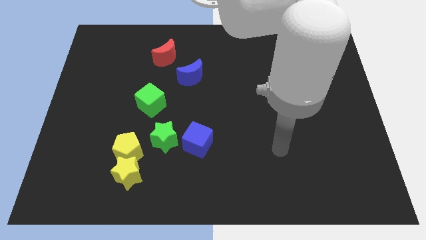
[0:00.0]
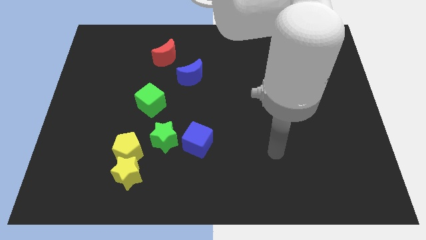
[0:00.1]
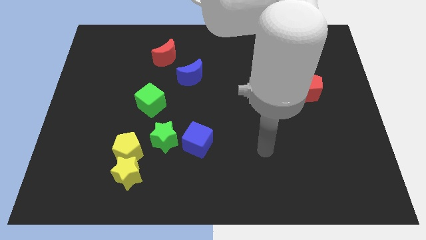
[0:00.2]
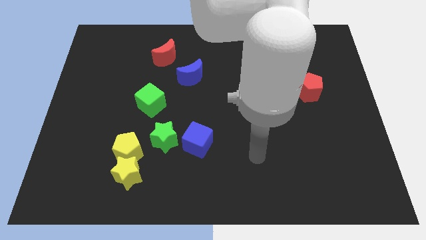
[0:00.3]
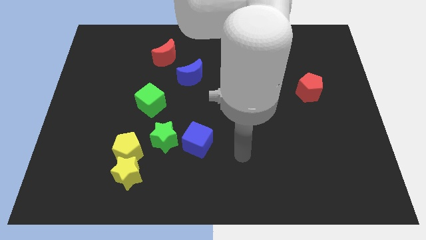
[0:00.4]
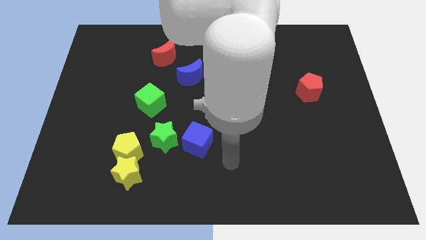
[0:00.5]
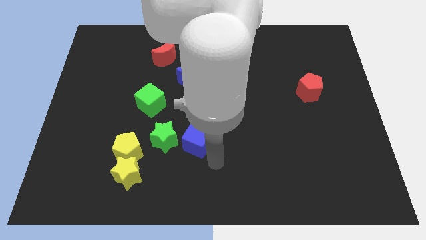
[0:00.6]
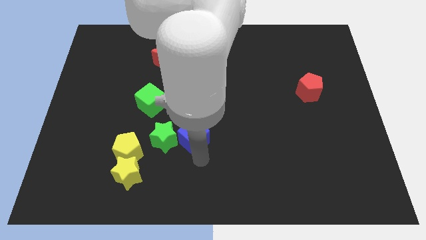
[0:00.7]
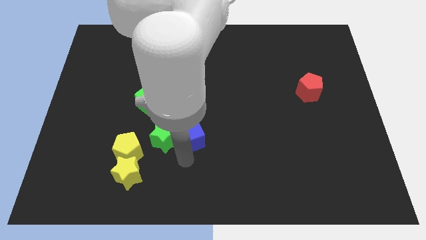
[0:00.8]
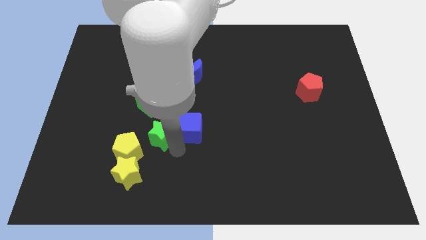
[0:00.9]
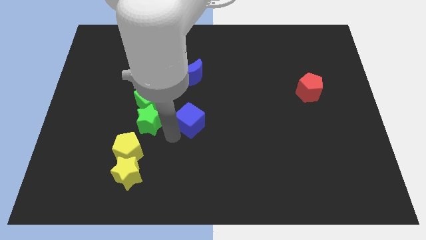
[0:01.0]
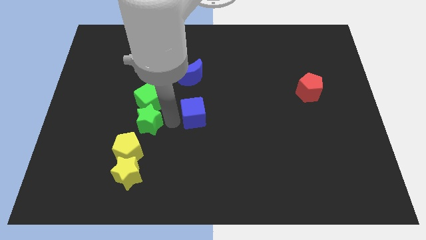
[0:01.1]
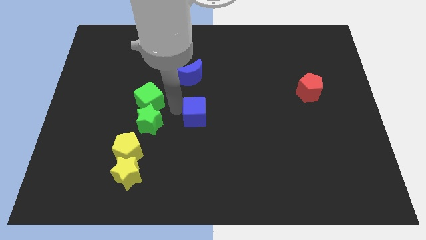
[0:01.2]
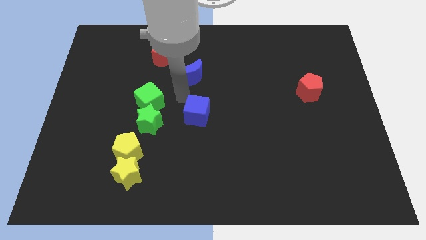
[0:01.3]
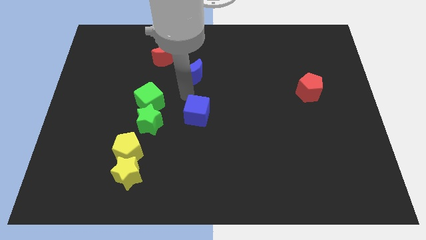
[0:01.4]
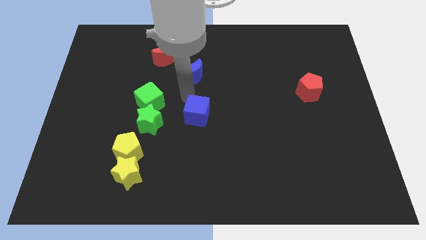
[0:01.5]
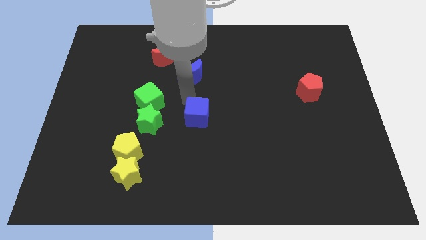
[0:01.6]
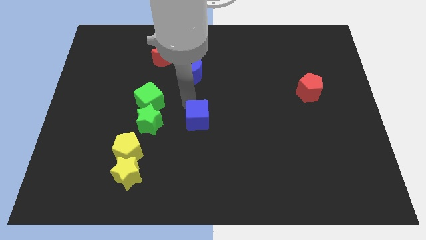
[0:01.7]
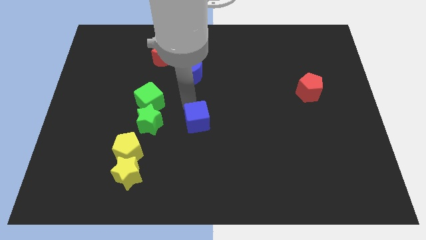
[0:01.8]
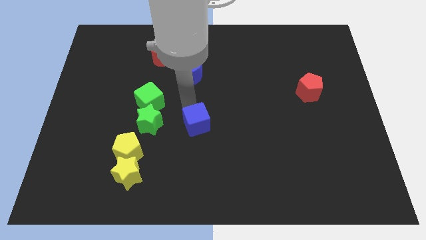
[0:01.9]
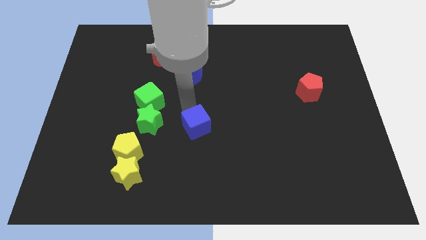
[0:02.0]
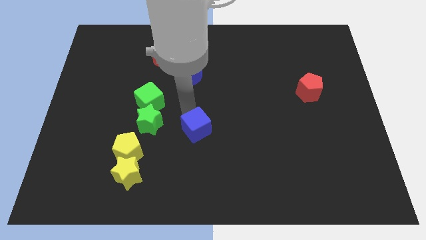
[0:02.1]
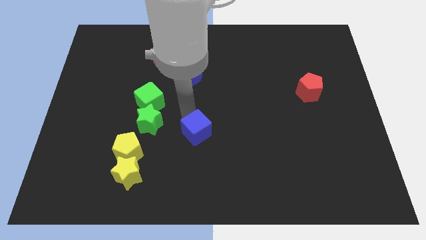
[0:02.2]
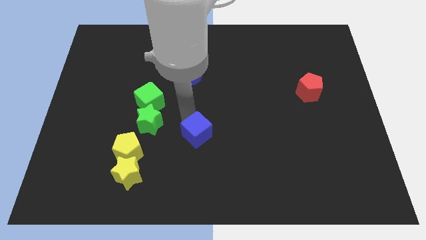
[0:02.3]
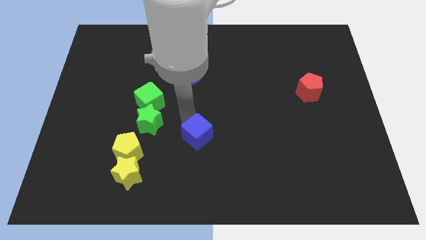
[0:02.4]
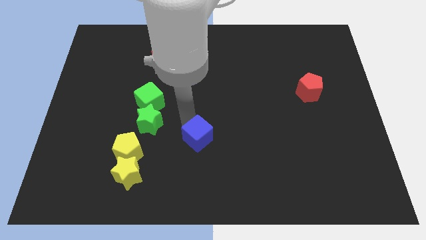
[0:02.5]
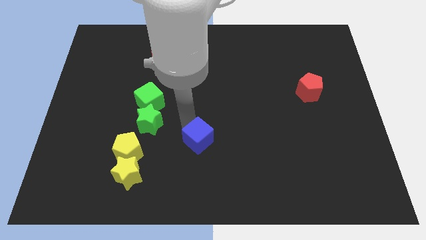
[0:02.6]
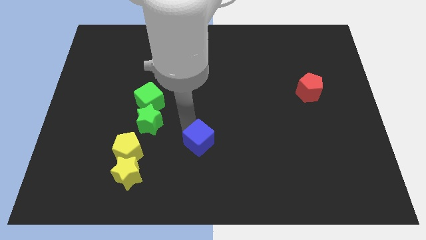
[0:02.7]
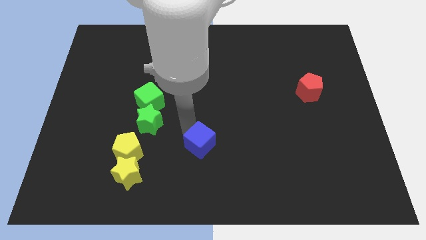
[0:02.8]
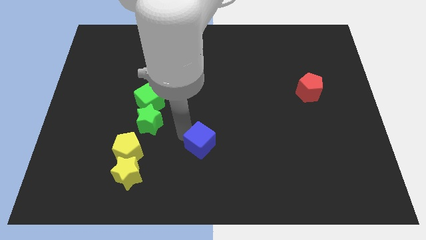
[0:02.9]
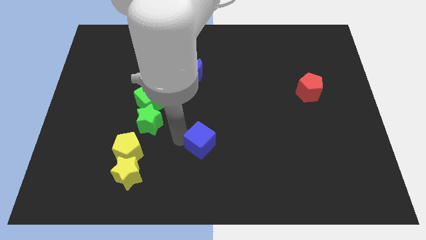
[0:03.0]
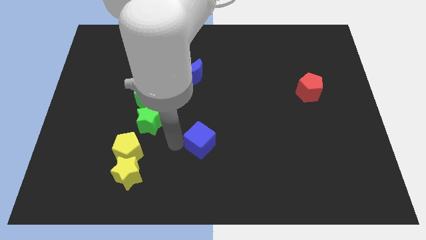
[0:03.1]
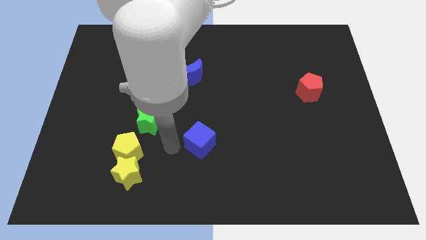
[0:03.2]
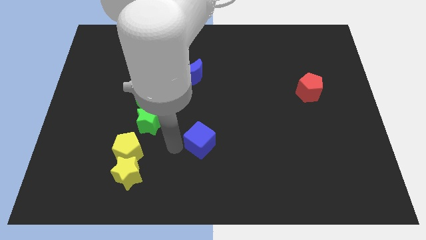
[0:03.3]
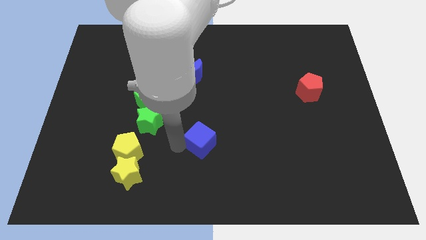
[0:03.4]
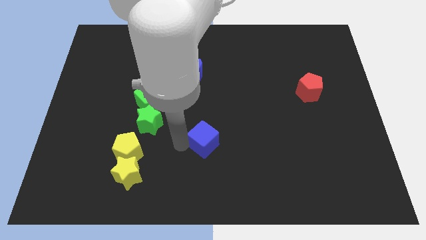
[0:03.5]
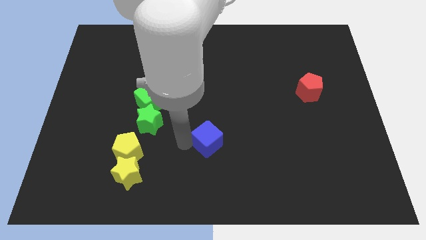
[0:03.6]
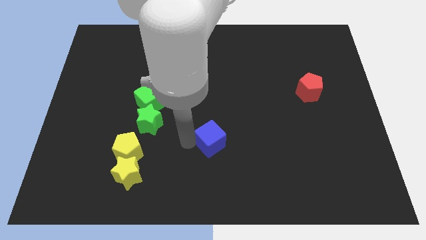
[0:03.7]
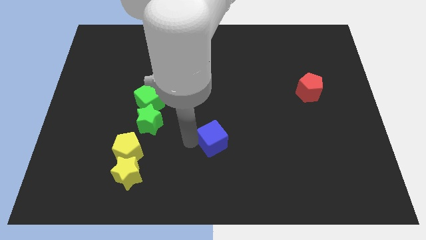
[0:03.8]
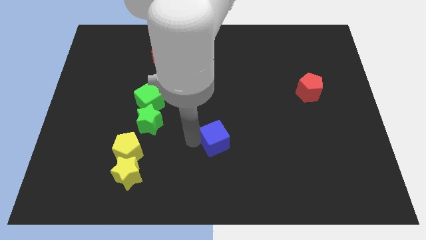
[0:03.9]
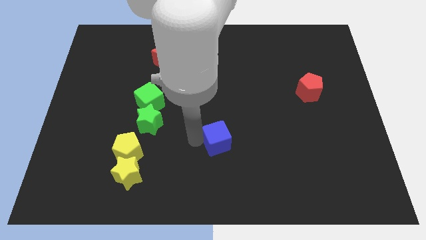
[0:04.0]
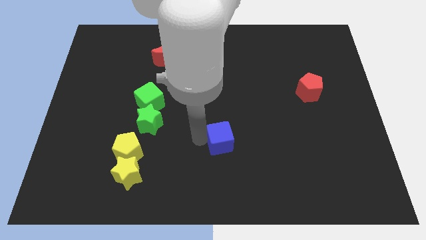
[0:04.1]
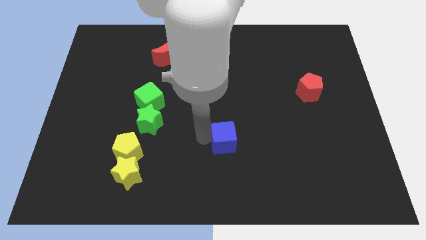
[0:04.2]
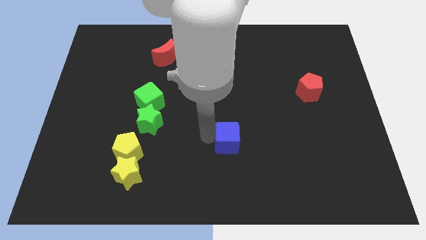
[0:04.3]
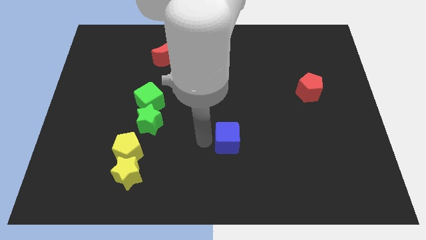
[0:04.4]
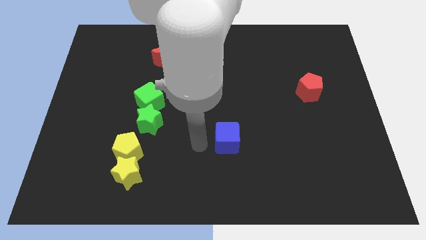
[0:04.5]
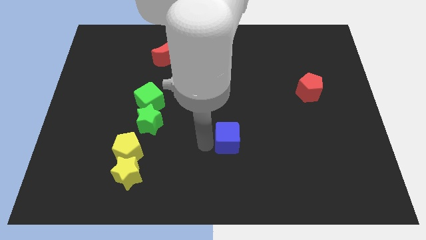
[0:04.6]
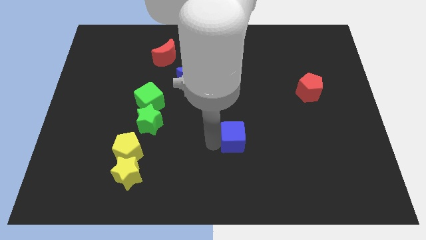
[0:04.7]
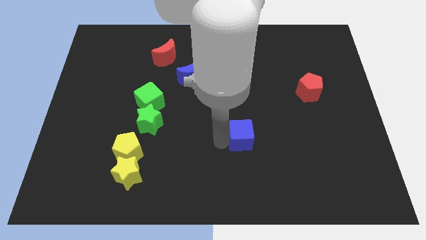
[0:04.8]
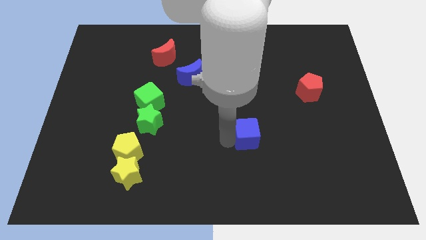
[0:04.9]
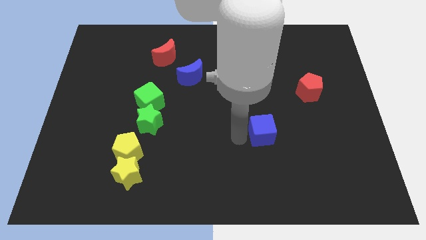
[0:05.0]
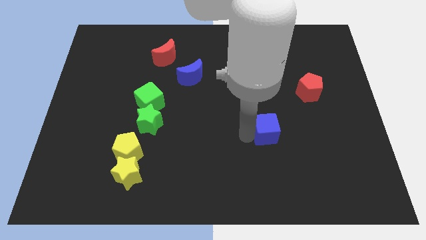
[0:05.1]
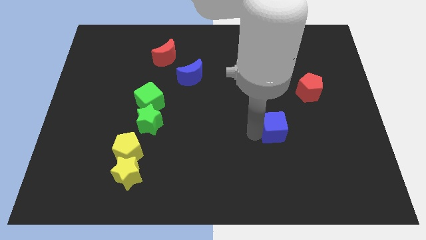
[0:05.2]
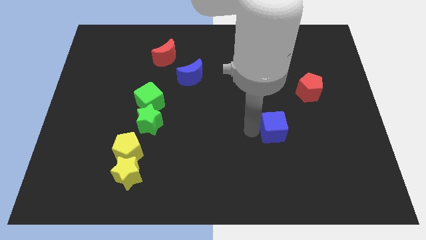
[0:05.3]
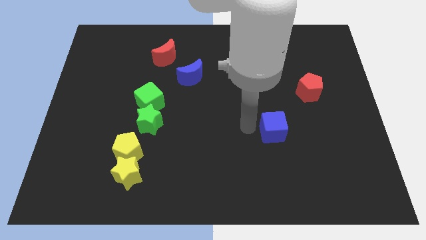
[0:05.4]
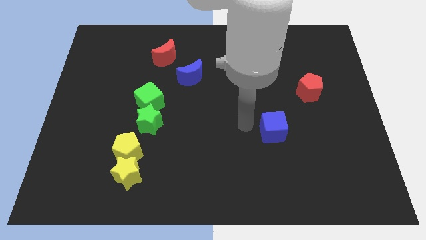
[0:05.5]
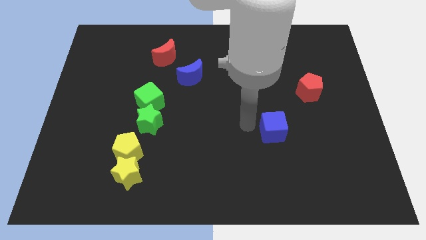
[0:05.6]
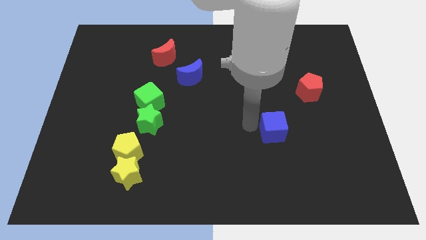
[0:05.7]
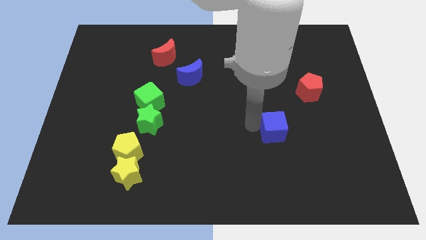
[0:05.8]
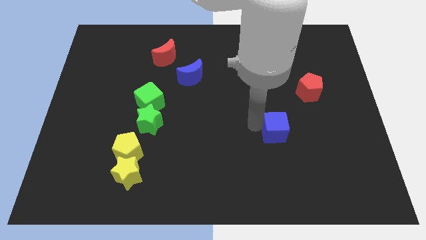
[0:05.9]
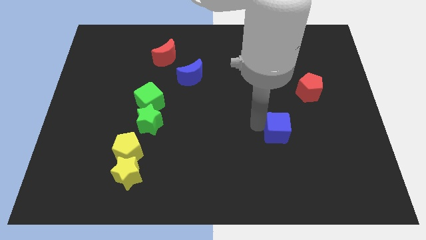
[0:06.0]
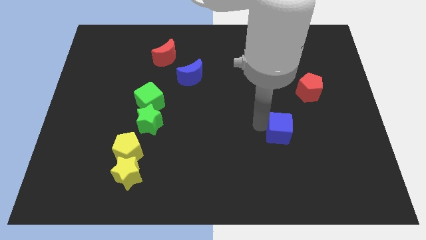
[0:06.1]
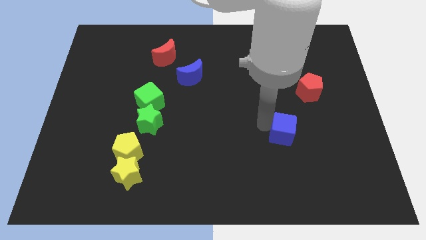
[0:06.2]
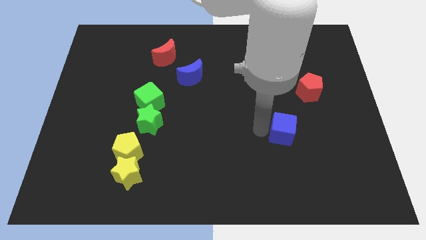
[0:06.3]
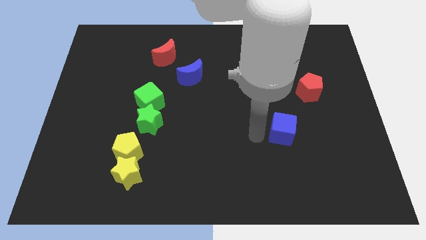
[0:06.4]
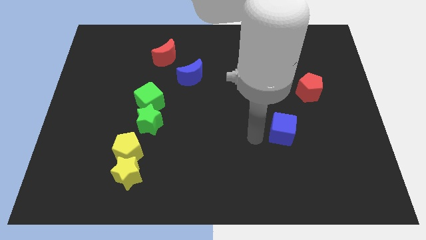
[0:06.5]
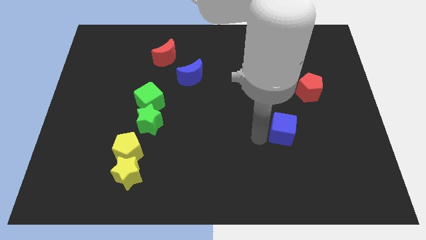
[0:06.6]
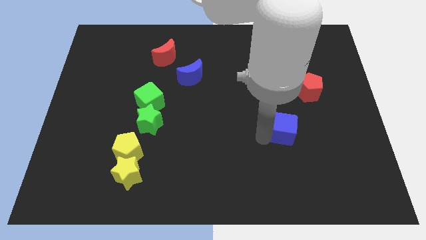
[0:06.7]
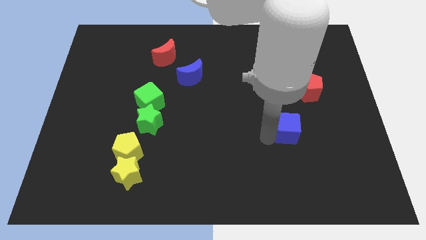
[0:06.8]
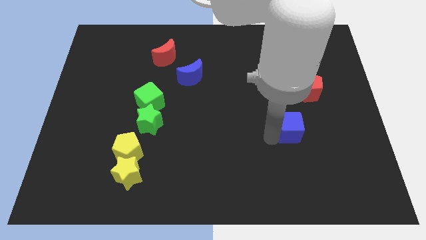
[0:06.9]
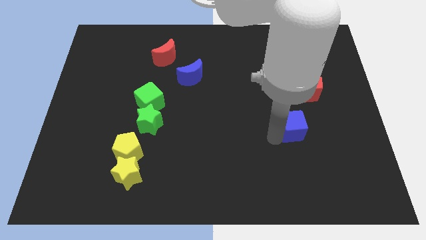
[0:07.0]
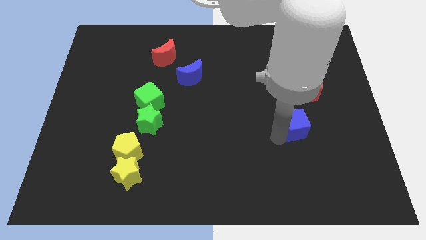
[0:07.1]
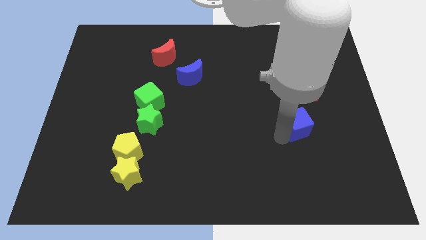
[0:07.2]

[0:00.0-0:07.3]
move the blue cube below the red pentagon

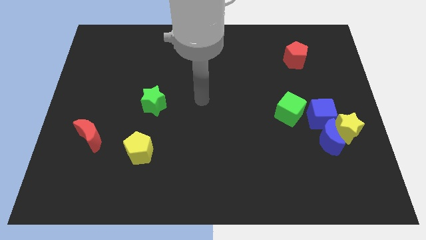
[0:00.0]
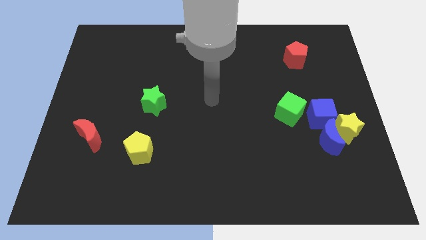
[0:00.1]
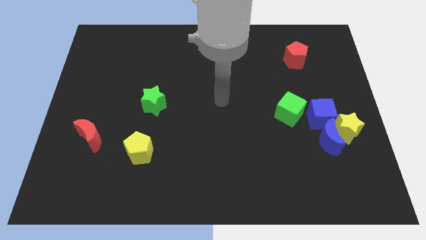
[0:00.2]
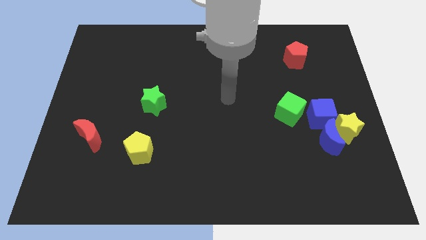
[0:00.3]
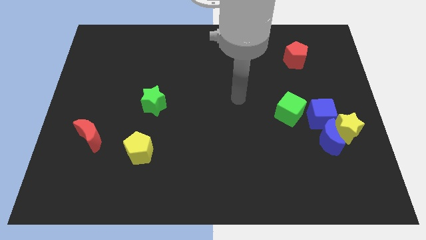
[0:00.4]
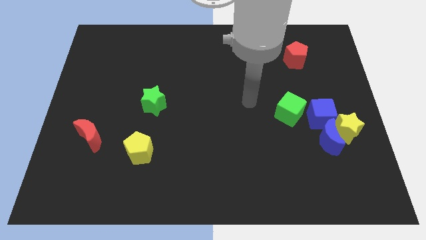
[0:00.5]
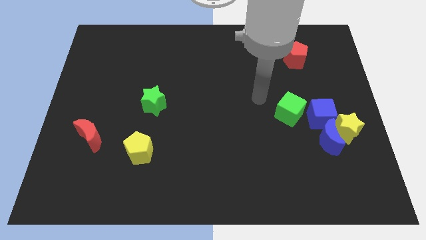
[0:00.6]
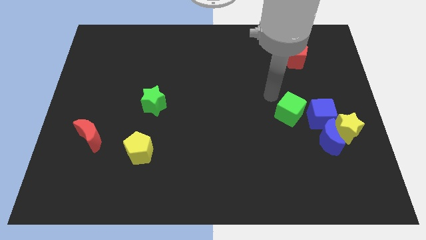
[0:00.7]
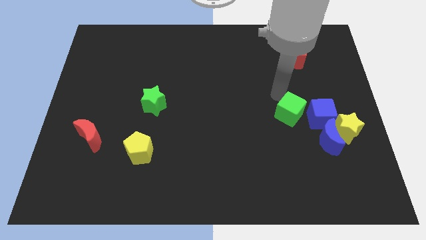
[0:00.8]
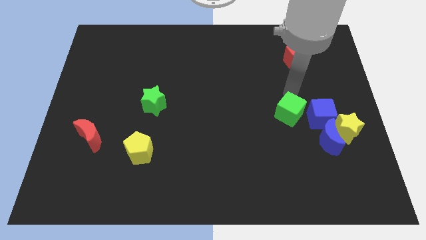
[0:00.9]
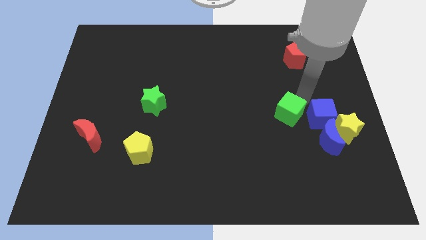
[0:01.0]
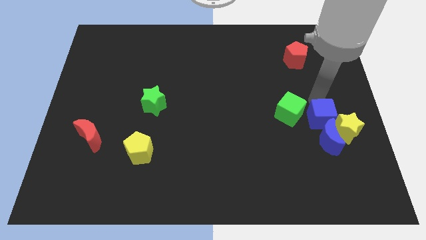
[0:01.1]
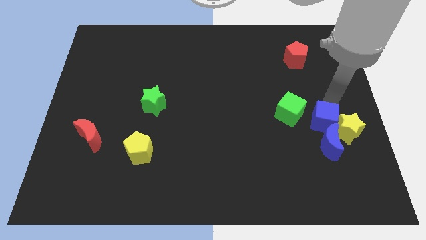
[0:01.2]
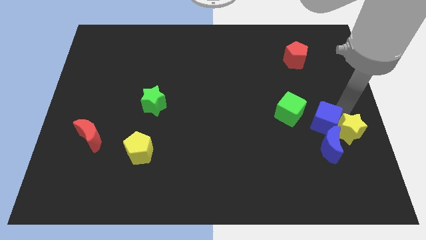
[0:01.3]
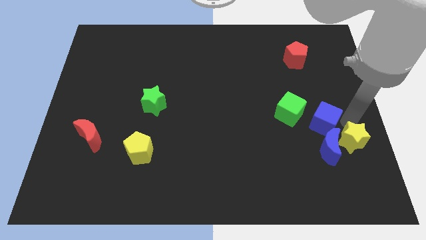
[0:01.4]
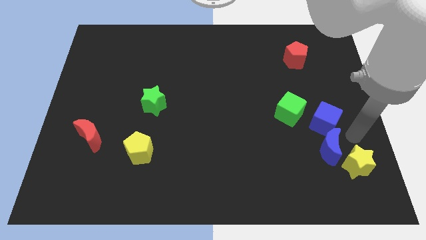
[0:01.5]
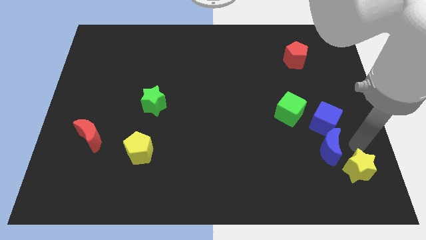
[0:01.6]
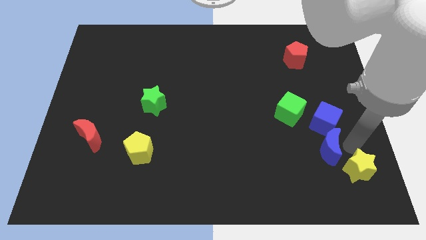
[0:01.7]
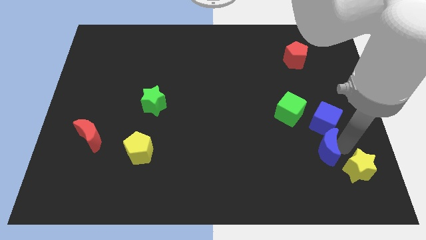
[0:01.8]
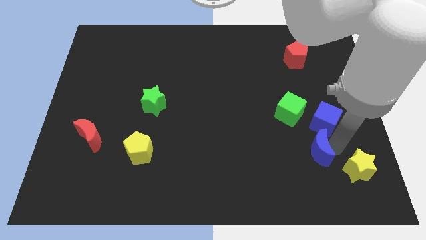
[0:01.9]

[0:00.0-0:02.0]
move the blue moon to the bottom side of the green cube
